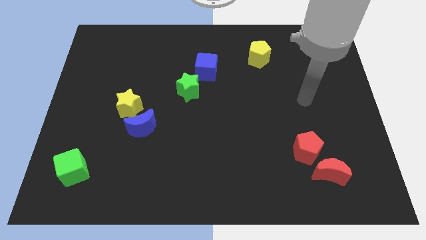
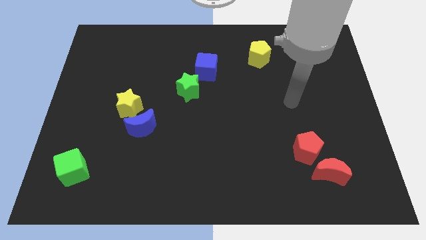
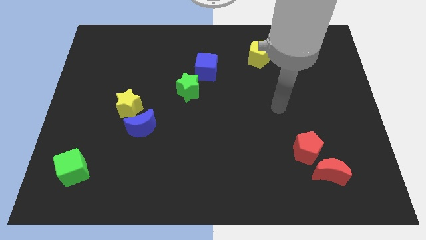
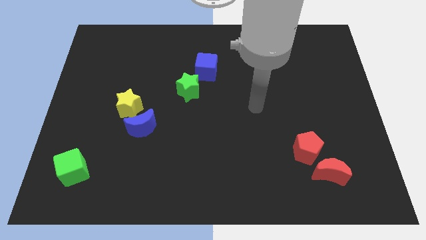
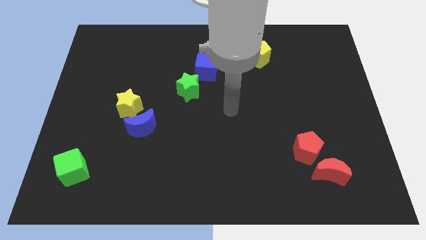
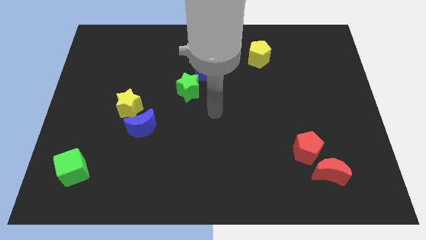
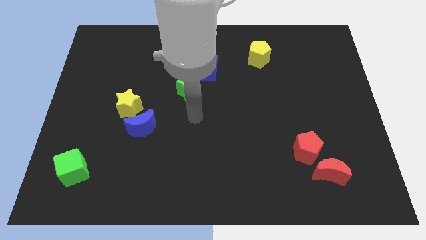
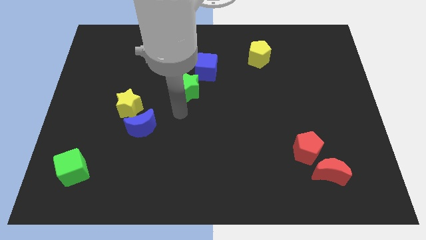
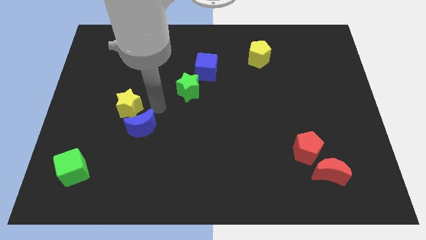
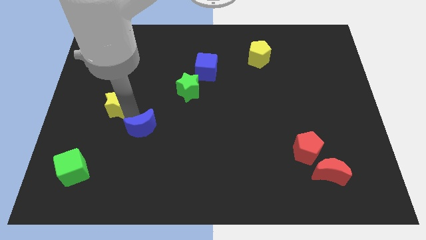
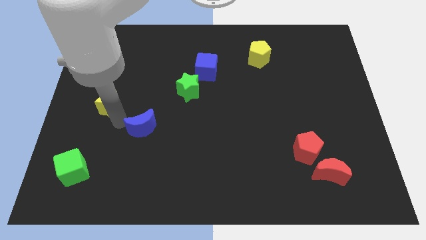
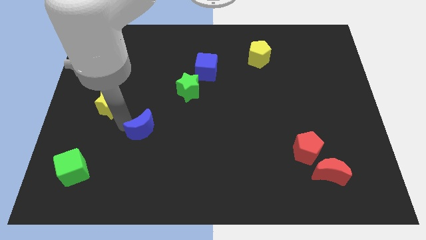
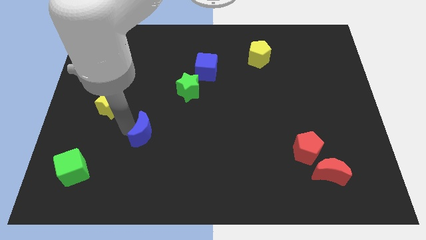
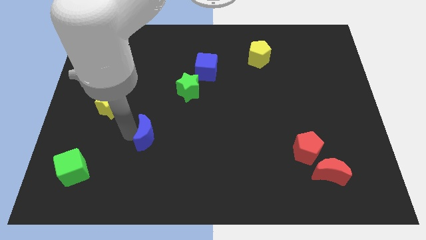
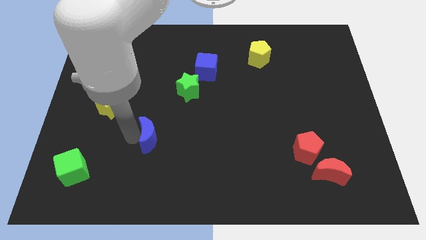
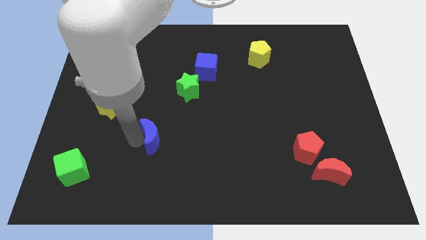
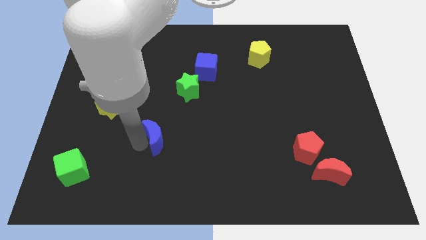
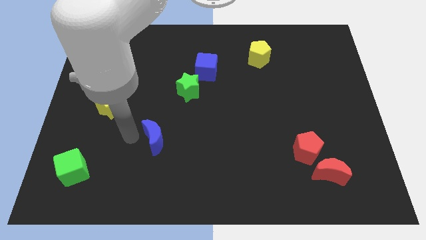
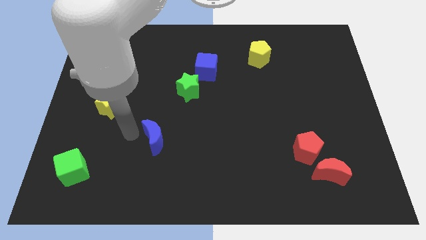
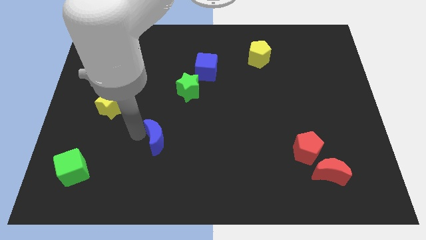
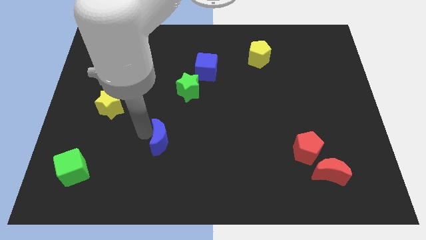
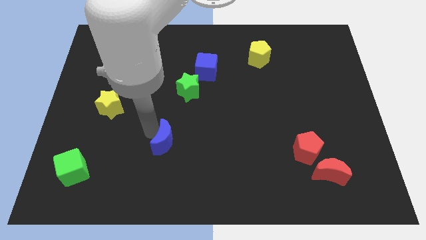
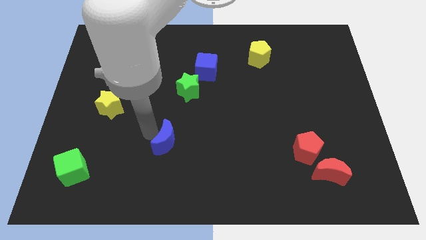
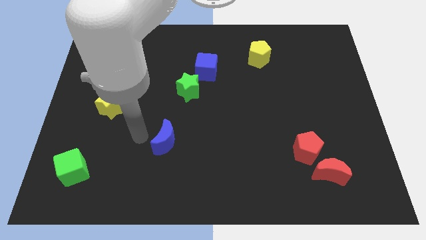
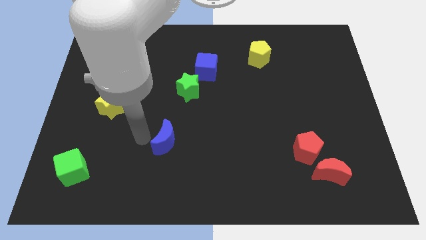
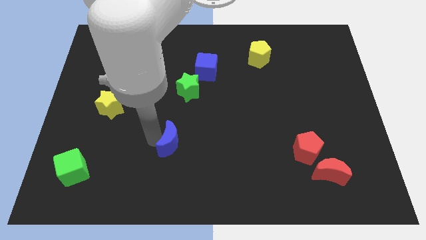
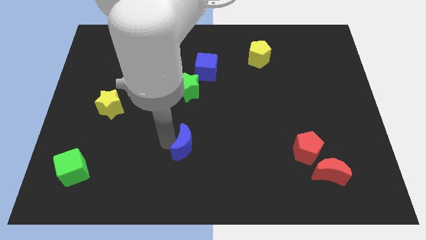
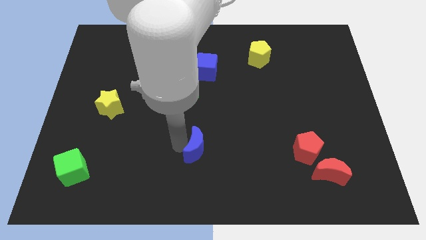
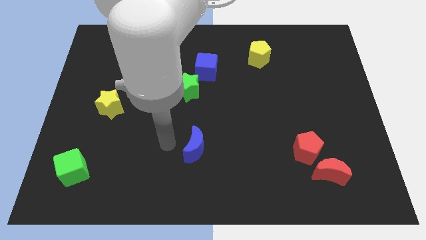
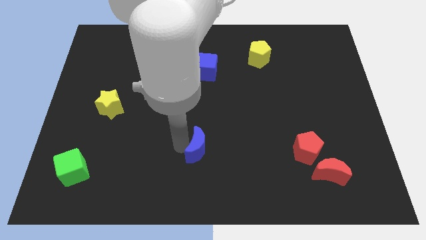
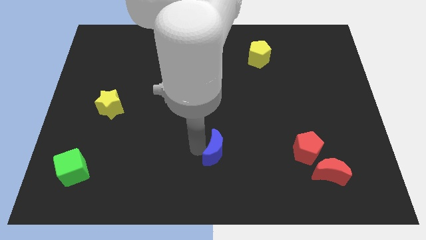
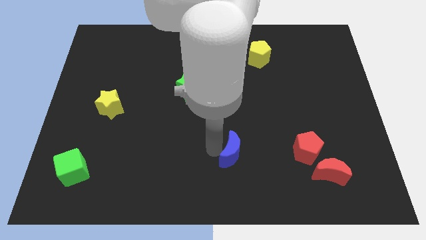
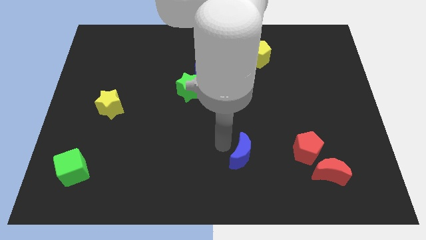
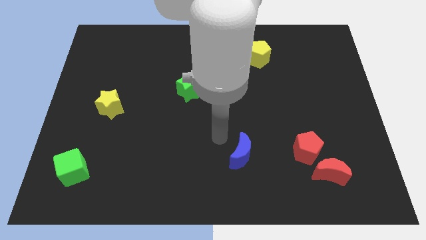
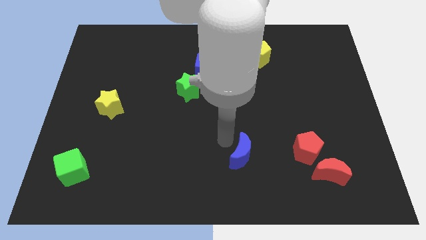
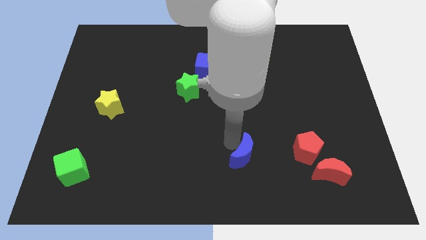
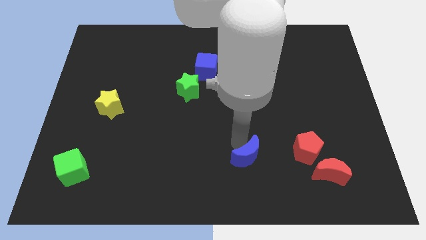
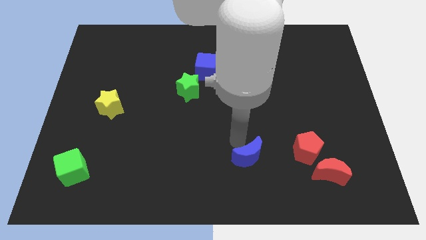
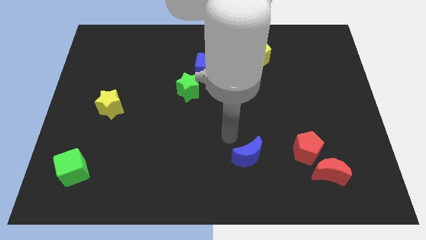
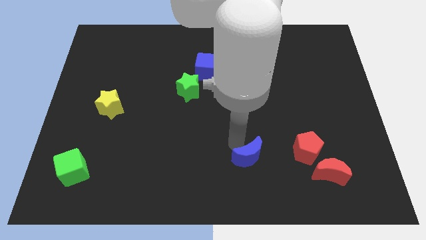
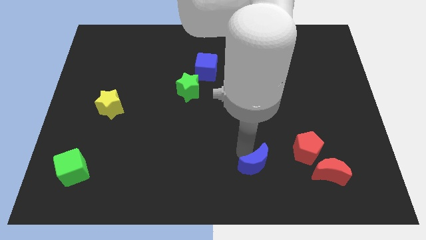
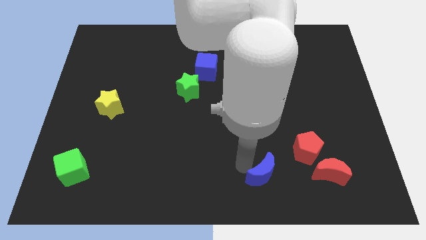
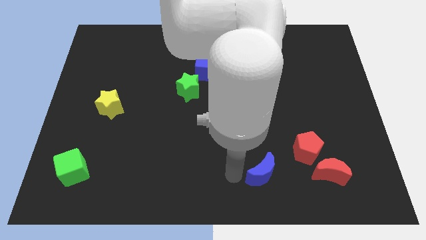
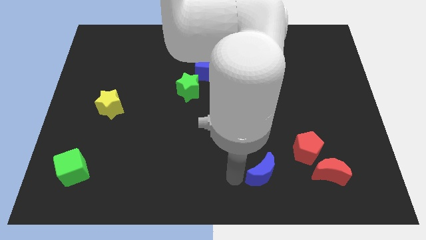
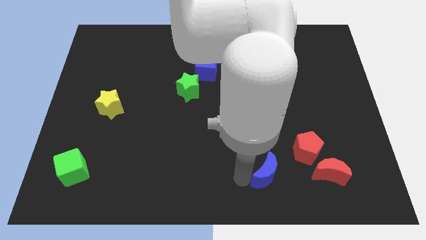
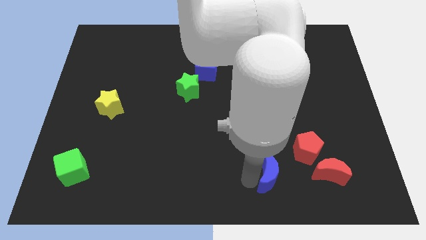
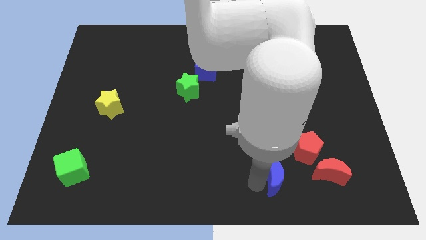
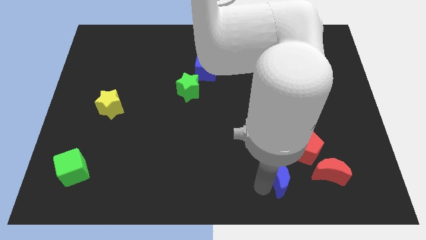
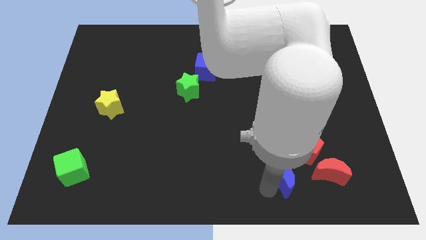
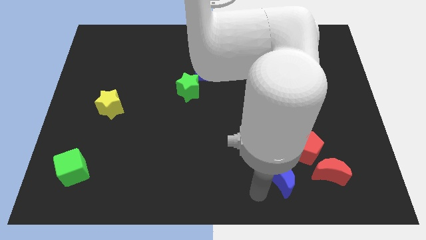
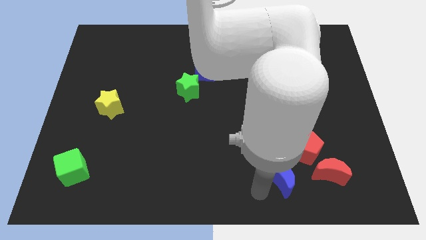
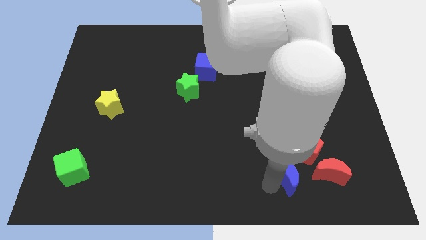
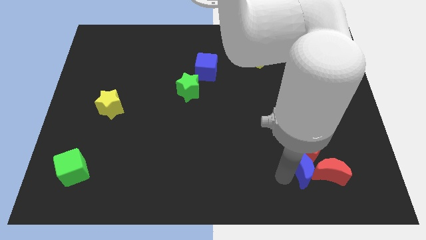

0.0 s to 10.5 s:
move the blue moon close to the red moon

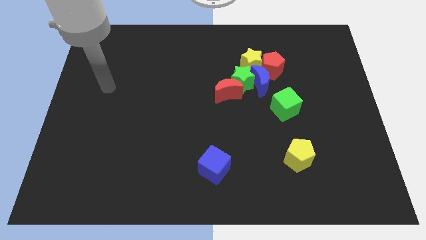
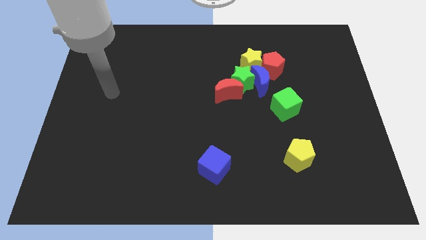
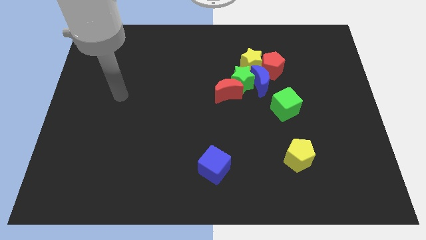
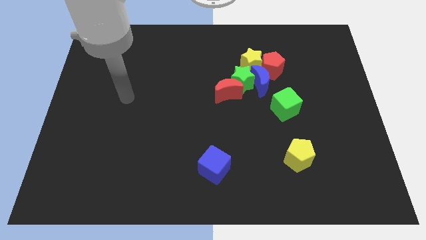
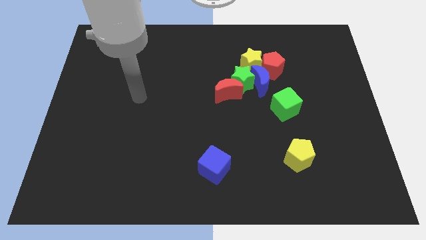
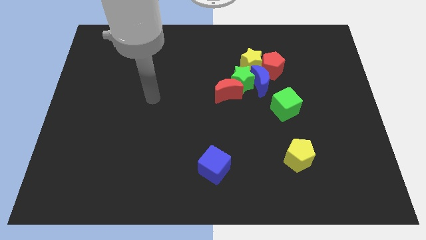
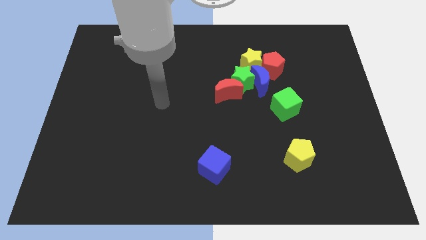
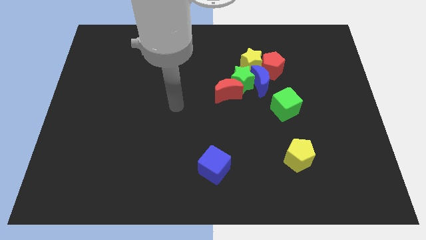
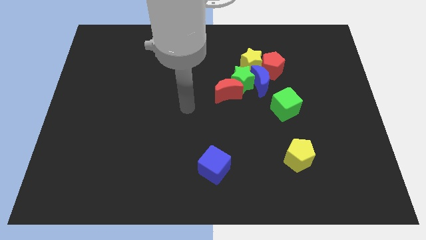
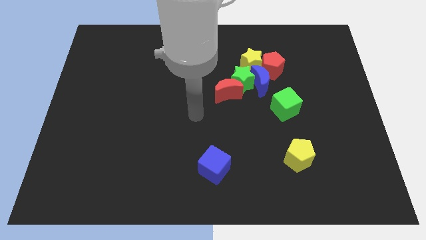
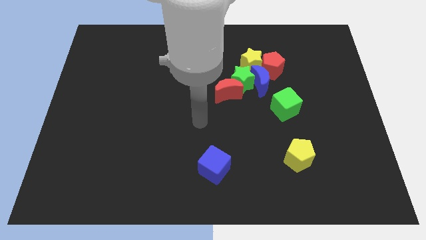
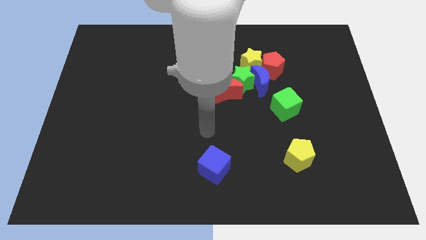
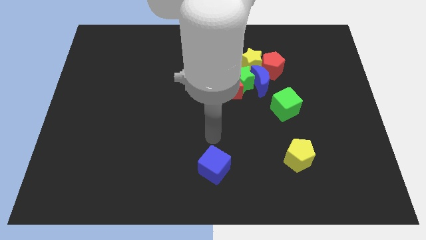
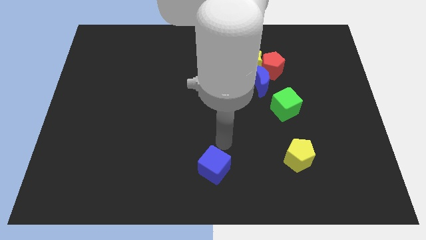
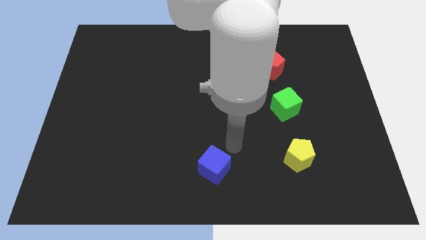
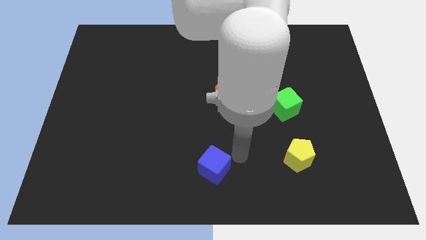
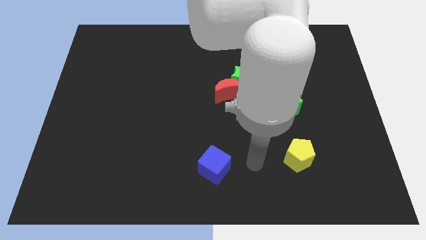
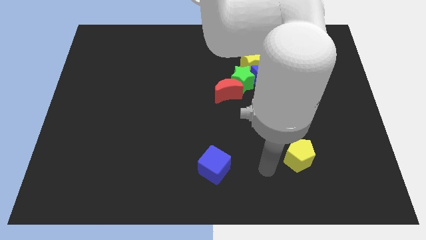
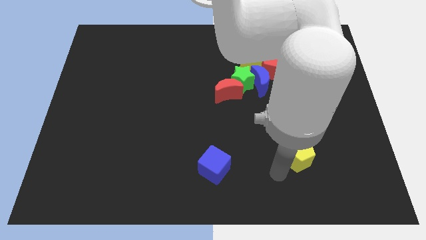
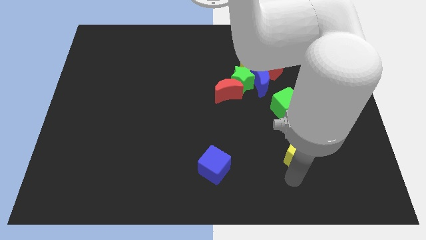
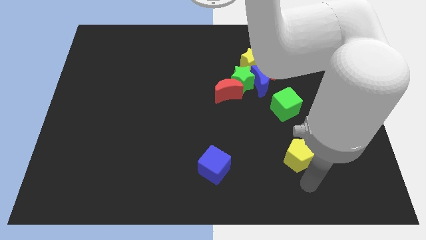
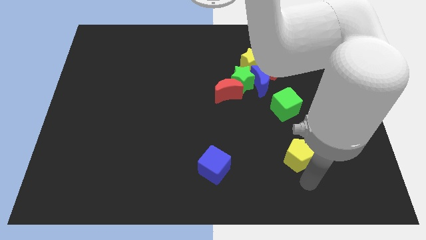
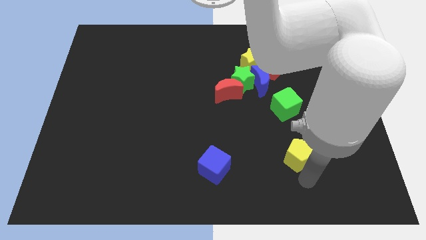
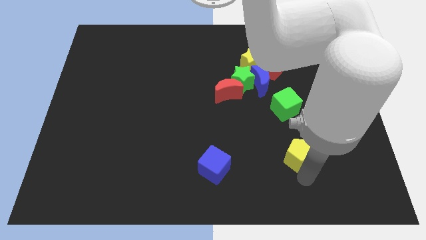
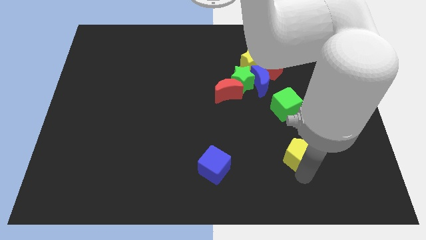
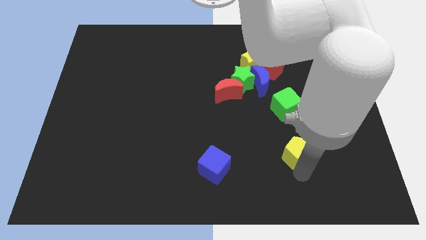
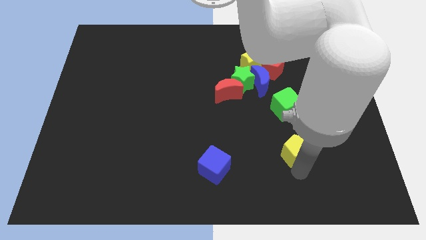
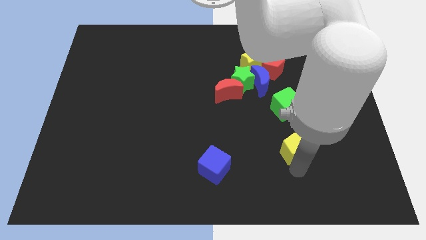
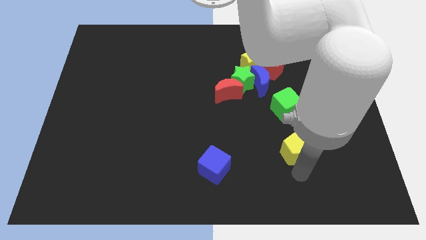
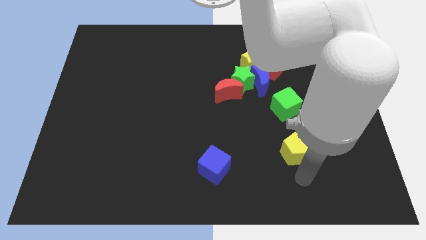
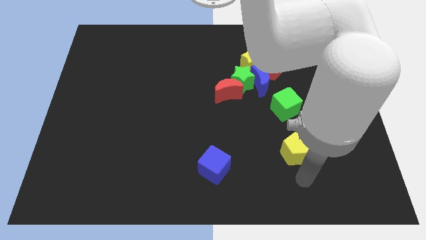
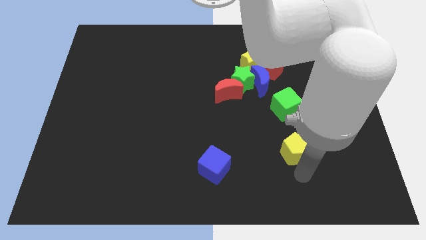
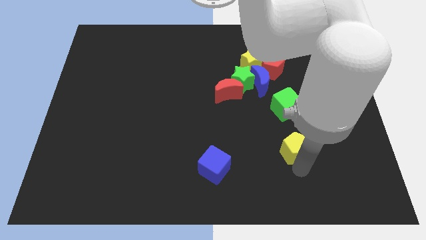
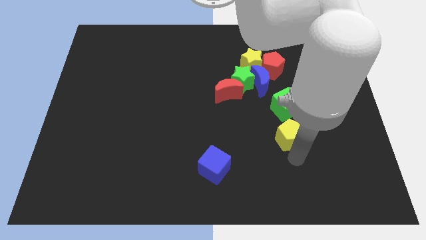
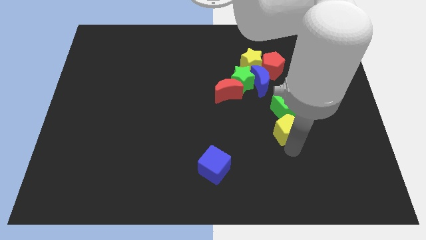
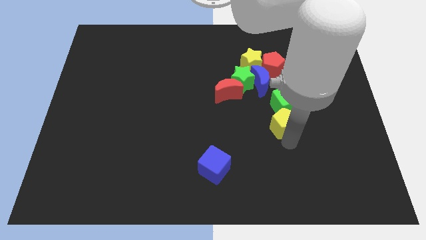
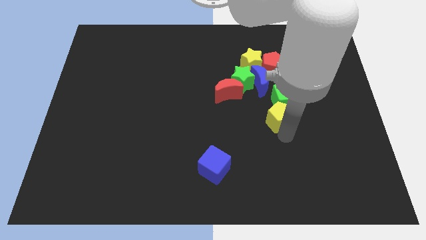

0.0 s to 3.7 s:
push the yellow pentagon towards the green cube
